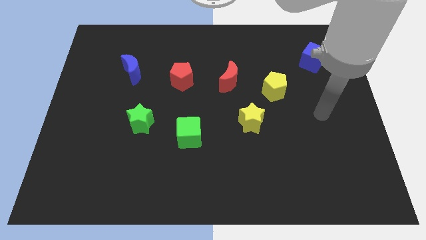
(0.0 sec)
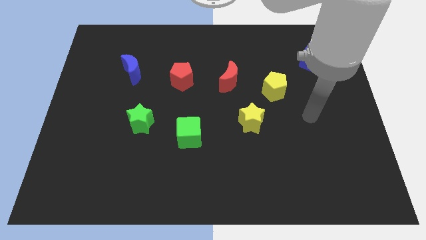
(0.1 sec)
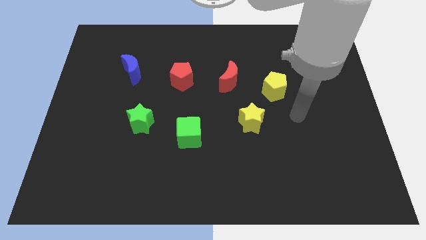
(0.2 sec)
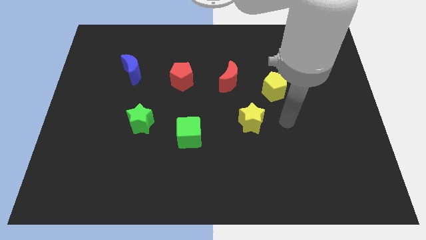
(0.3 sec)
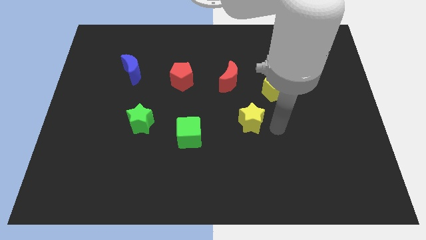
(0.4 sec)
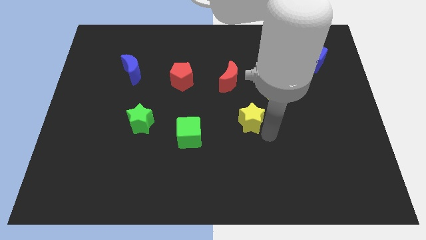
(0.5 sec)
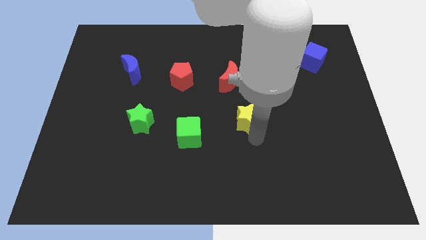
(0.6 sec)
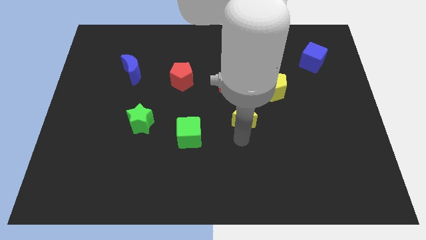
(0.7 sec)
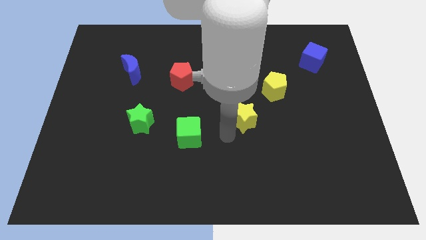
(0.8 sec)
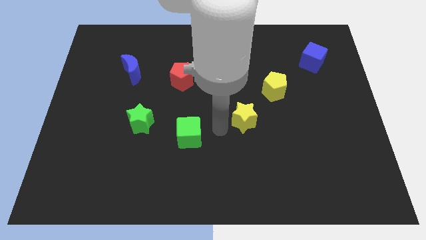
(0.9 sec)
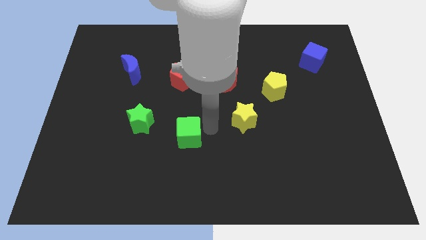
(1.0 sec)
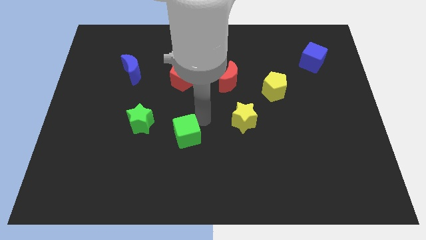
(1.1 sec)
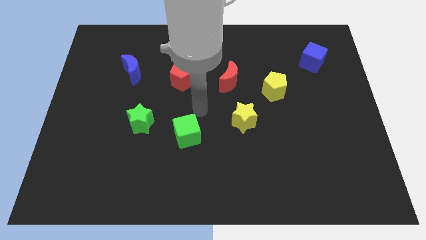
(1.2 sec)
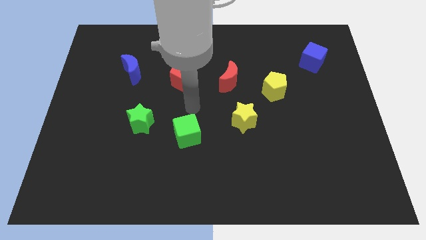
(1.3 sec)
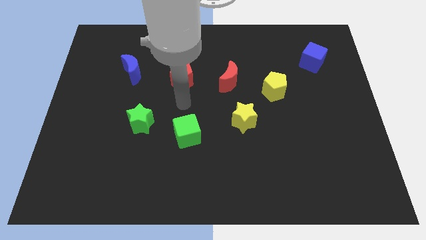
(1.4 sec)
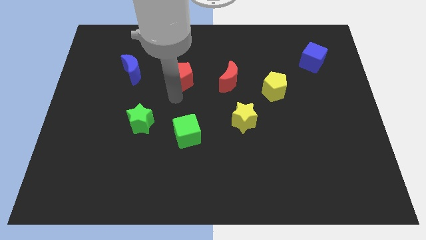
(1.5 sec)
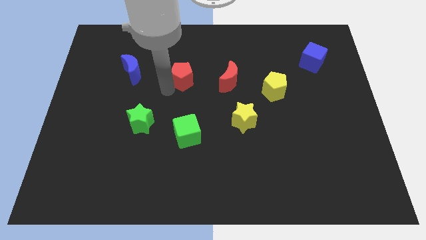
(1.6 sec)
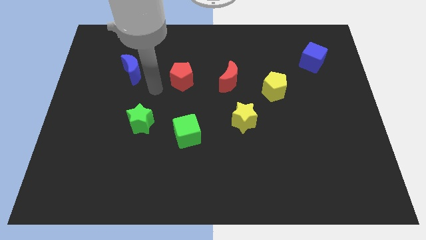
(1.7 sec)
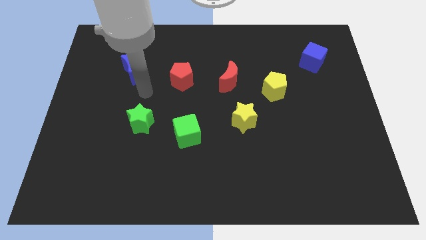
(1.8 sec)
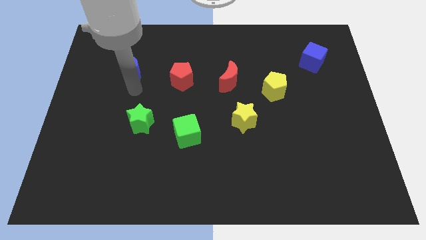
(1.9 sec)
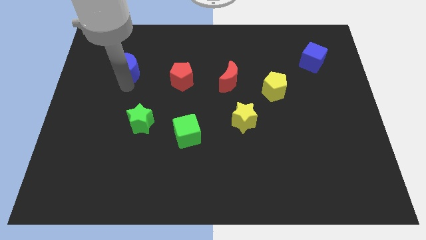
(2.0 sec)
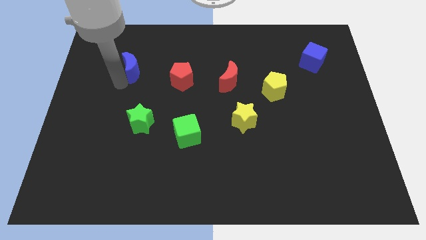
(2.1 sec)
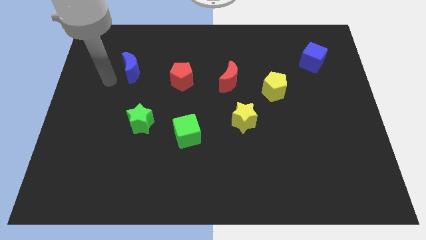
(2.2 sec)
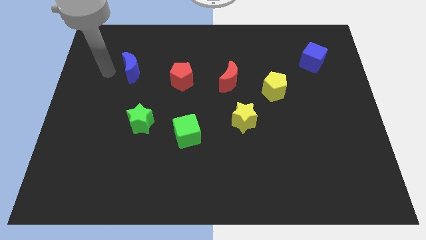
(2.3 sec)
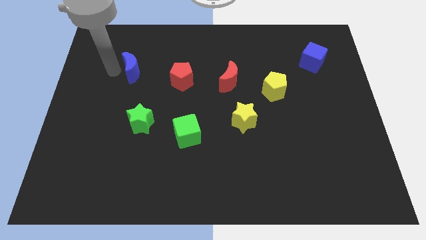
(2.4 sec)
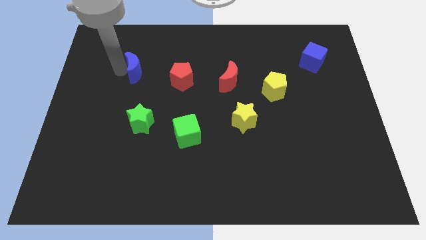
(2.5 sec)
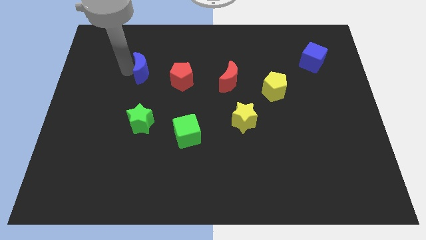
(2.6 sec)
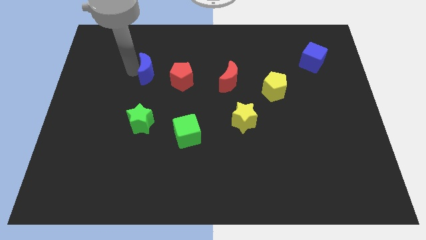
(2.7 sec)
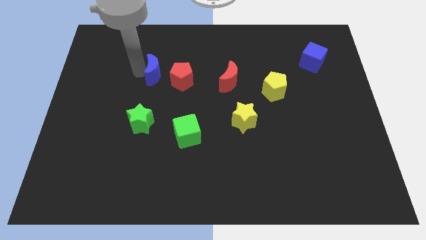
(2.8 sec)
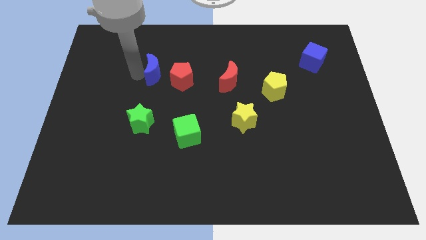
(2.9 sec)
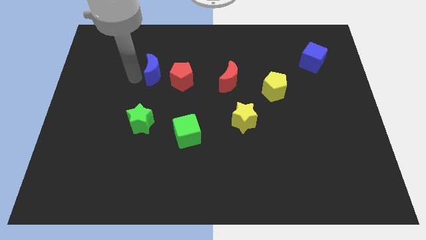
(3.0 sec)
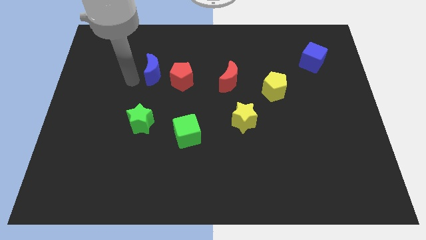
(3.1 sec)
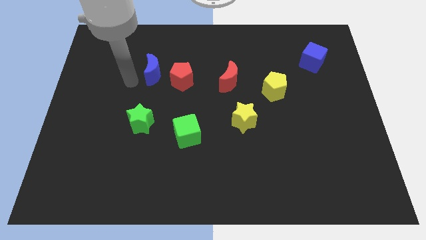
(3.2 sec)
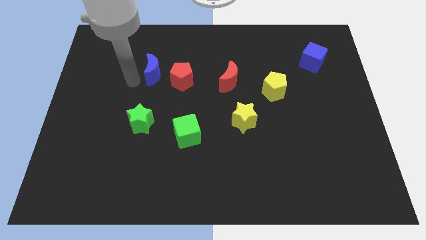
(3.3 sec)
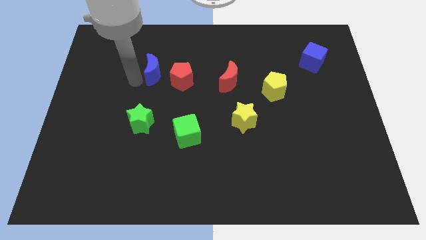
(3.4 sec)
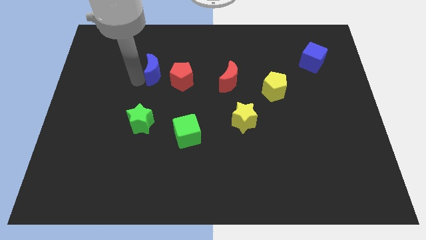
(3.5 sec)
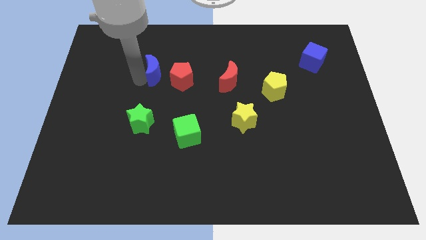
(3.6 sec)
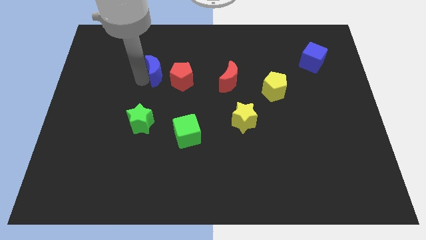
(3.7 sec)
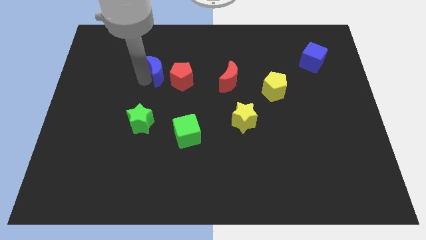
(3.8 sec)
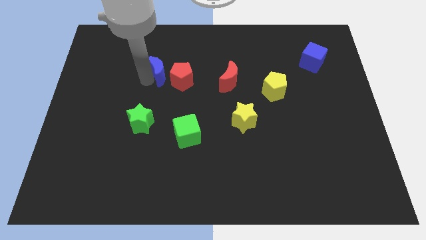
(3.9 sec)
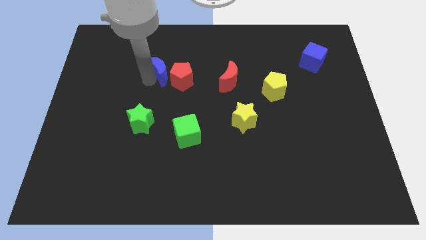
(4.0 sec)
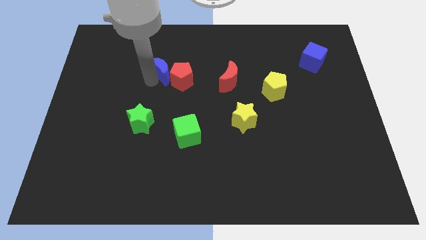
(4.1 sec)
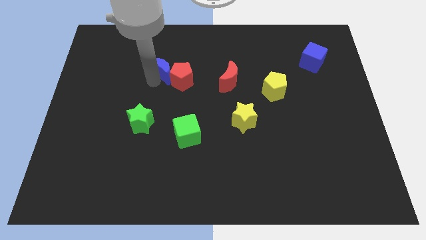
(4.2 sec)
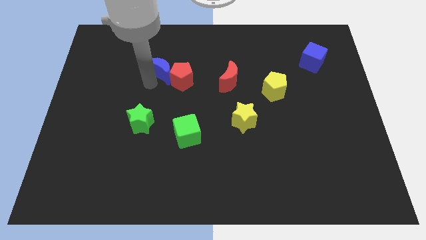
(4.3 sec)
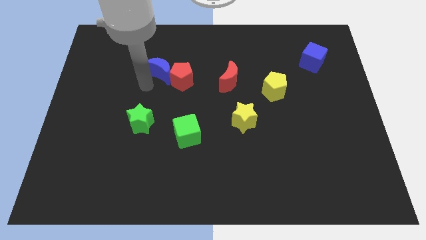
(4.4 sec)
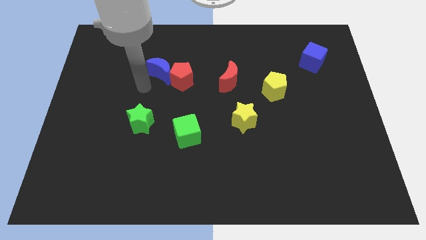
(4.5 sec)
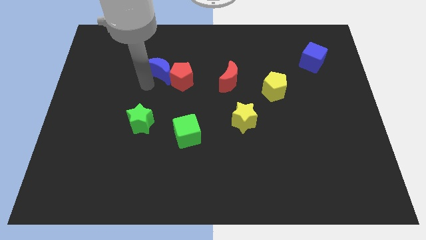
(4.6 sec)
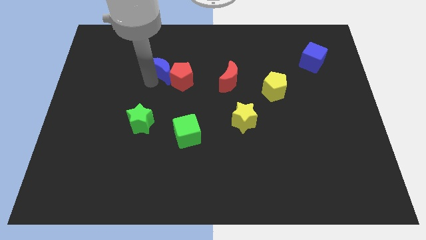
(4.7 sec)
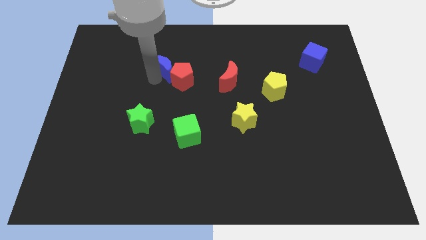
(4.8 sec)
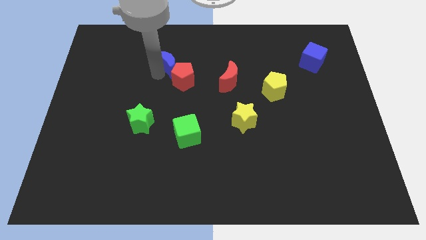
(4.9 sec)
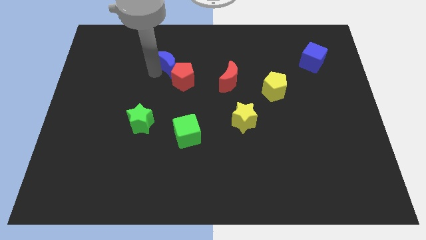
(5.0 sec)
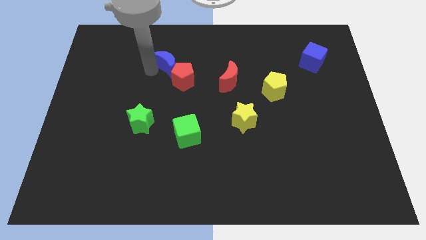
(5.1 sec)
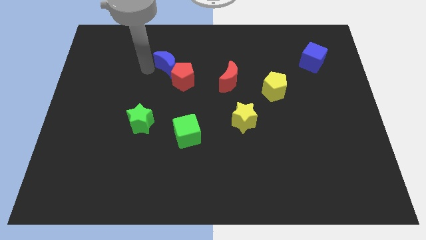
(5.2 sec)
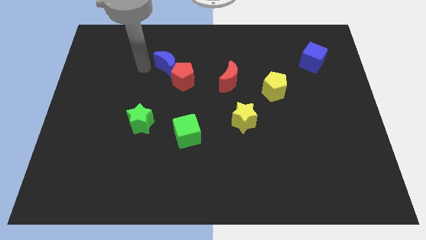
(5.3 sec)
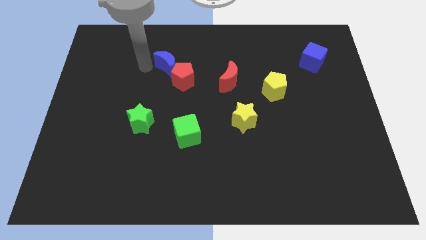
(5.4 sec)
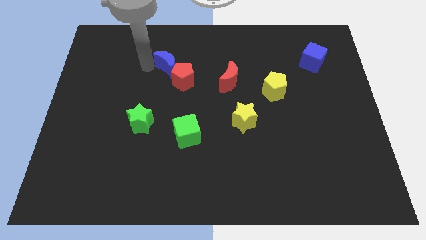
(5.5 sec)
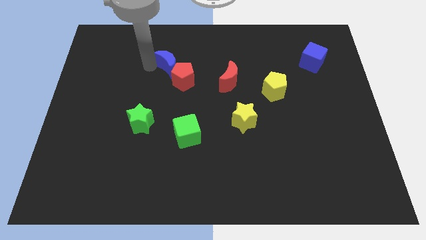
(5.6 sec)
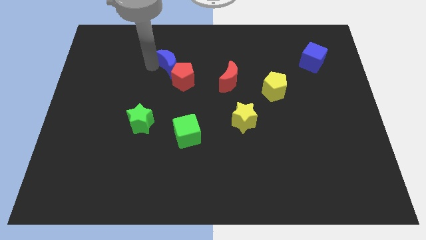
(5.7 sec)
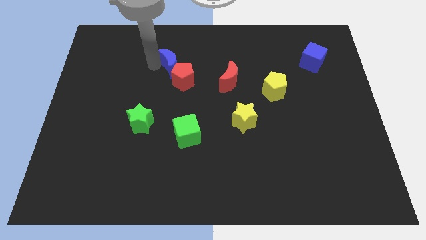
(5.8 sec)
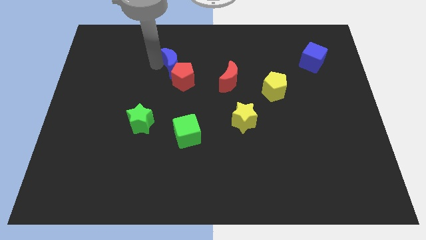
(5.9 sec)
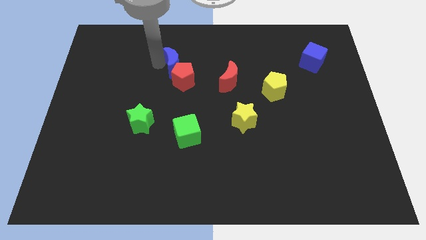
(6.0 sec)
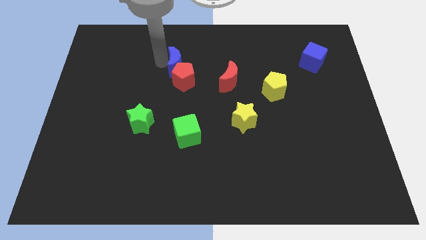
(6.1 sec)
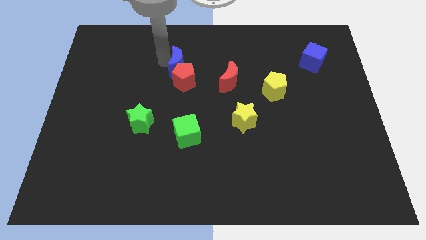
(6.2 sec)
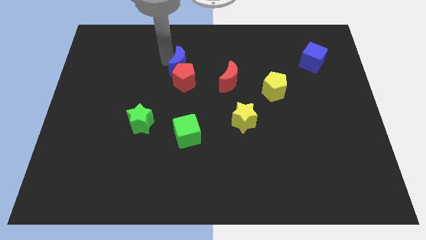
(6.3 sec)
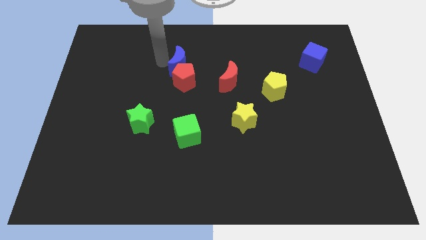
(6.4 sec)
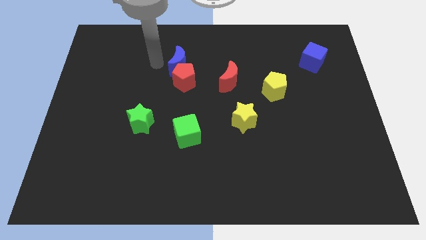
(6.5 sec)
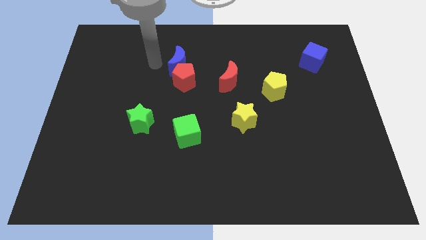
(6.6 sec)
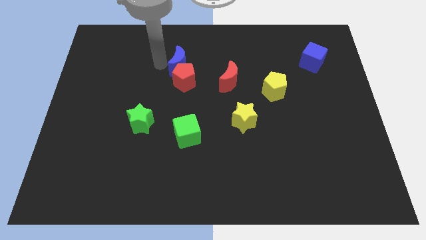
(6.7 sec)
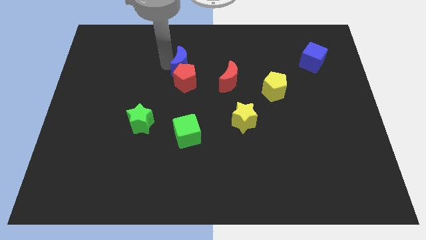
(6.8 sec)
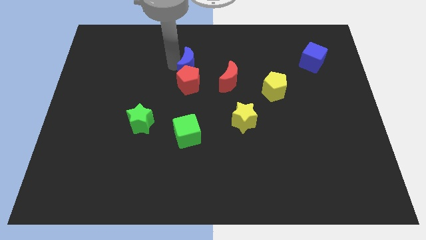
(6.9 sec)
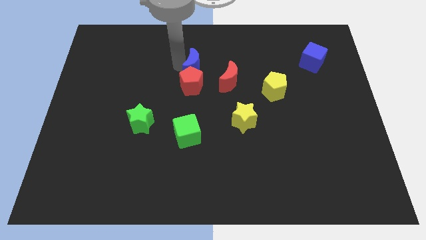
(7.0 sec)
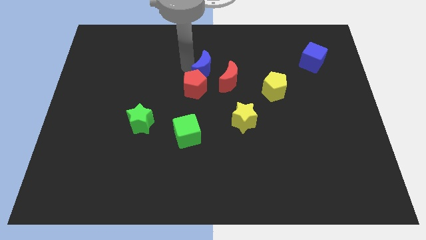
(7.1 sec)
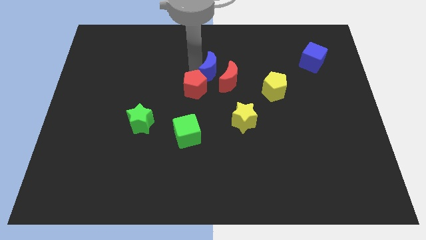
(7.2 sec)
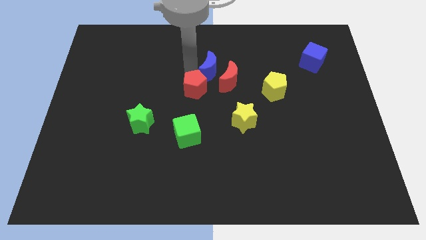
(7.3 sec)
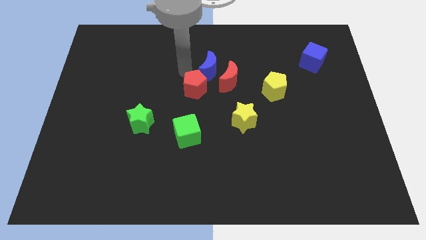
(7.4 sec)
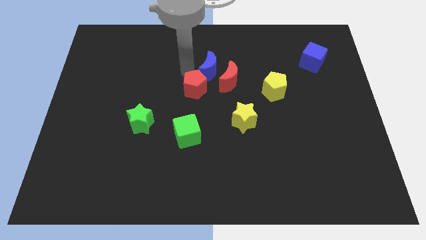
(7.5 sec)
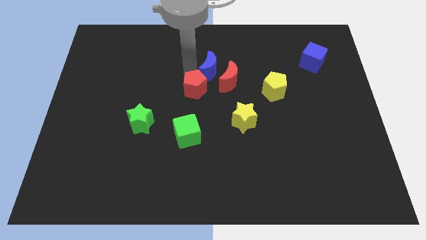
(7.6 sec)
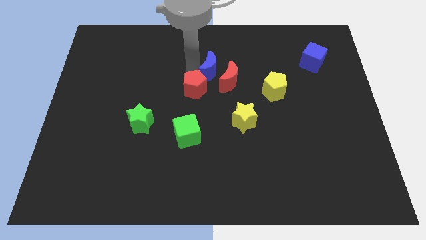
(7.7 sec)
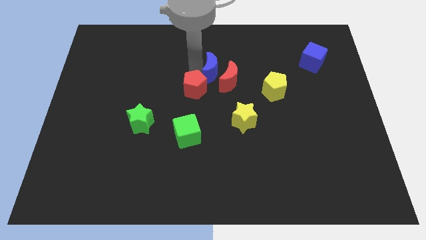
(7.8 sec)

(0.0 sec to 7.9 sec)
push the blue moon to the right

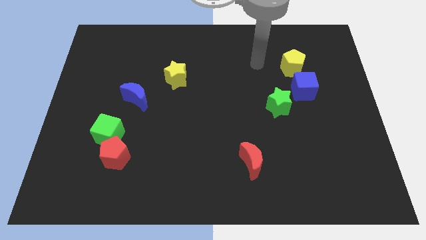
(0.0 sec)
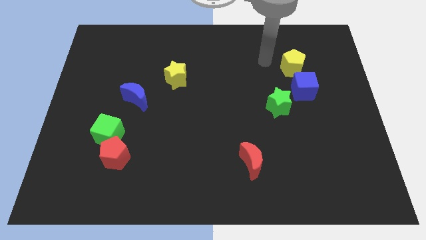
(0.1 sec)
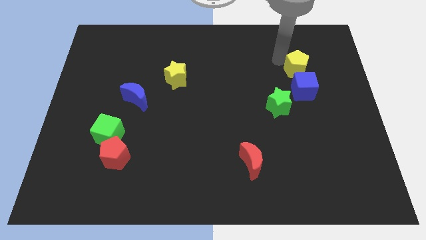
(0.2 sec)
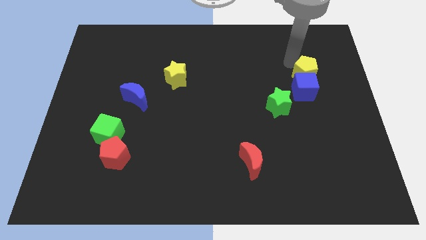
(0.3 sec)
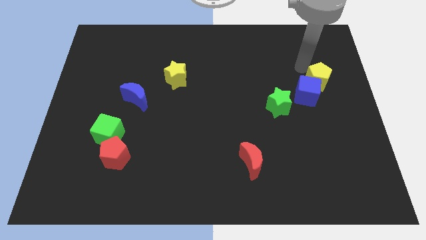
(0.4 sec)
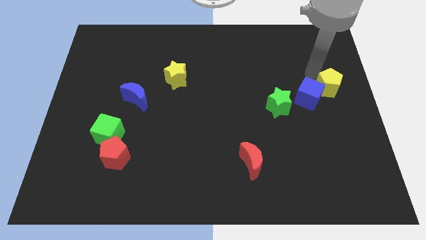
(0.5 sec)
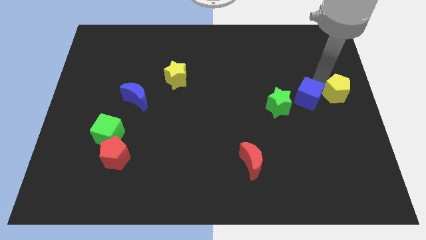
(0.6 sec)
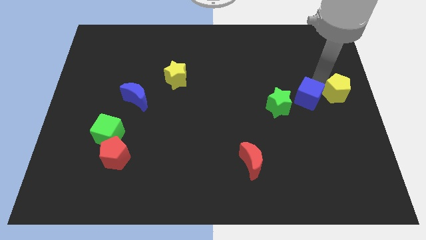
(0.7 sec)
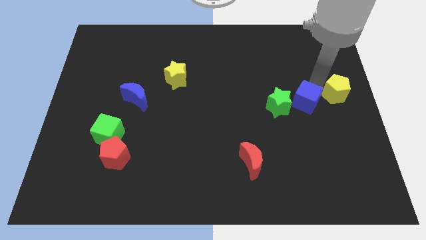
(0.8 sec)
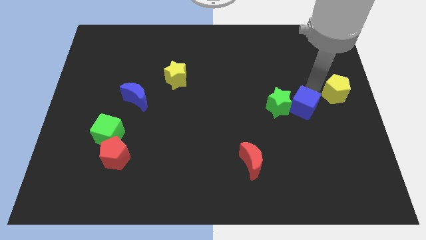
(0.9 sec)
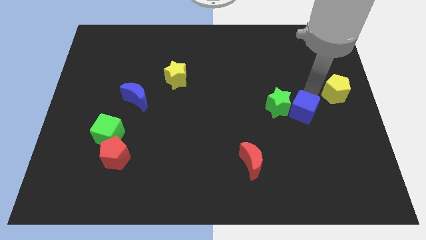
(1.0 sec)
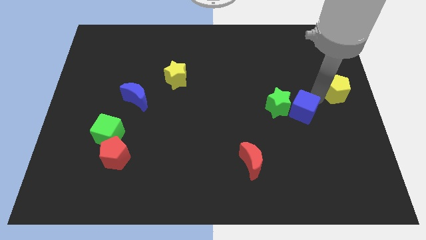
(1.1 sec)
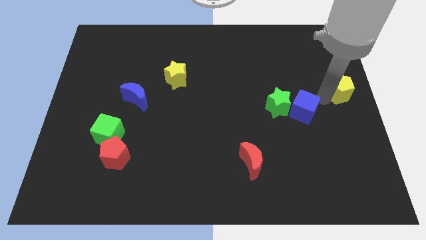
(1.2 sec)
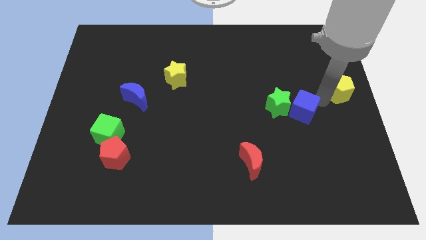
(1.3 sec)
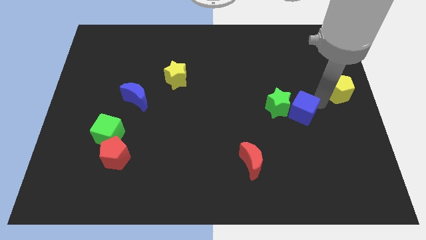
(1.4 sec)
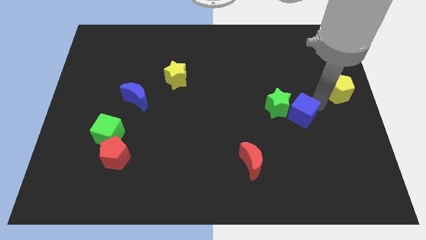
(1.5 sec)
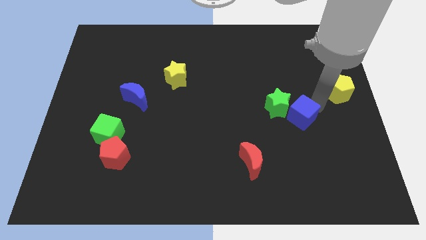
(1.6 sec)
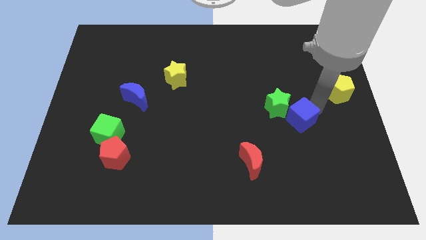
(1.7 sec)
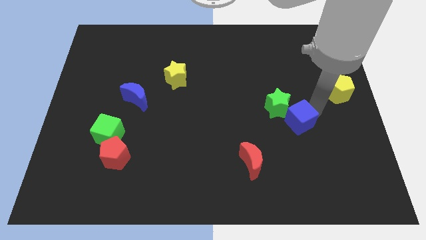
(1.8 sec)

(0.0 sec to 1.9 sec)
push the blue cube down and left a bit
